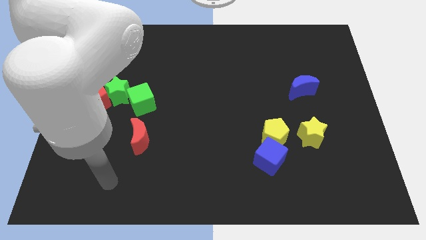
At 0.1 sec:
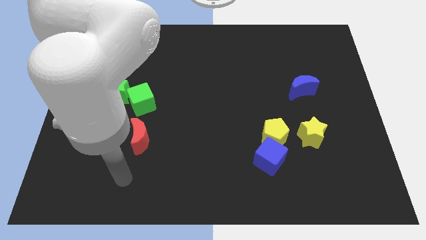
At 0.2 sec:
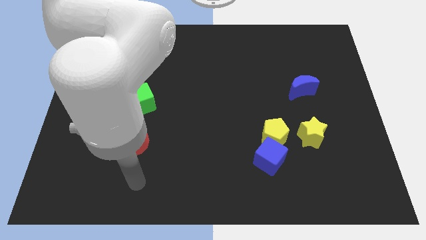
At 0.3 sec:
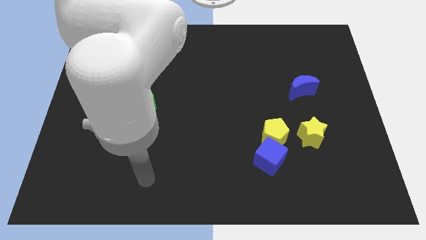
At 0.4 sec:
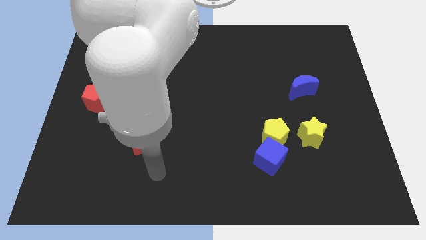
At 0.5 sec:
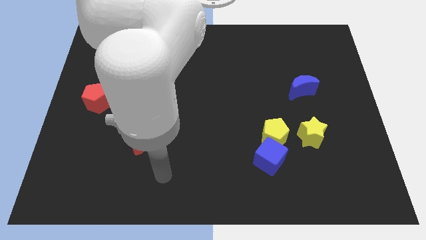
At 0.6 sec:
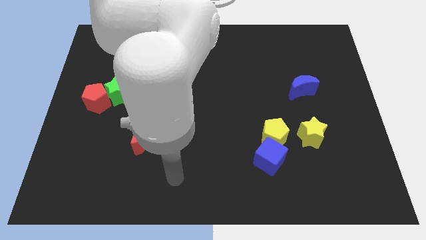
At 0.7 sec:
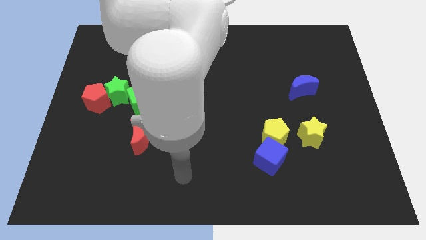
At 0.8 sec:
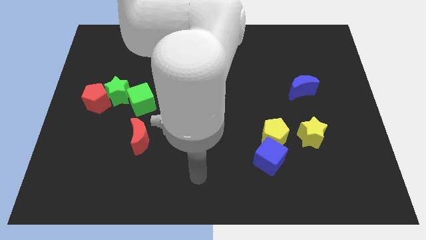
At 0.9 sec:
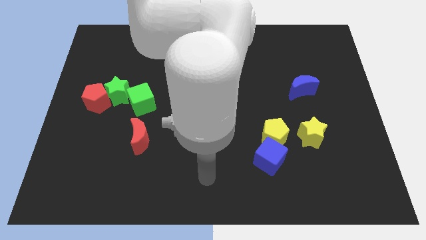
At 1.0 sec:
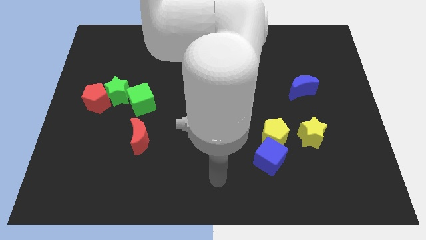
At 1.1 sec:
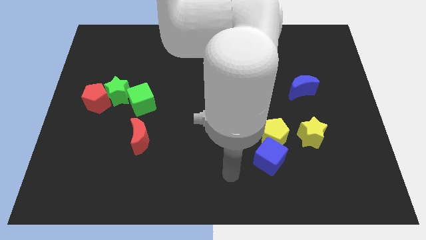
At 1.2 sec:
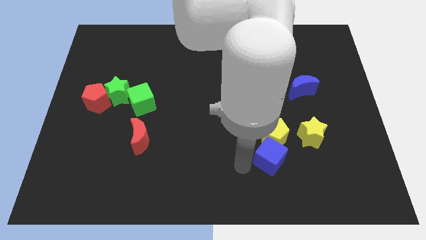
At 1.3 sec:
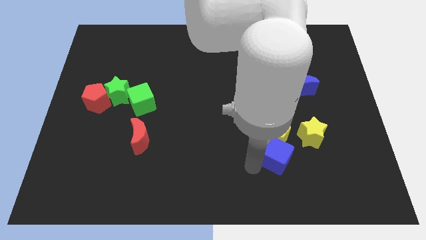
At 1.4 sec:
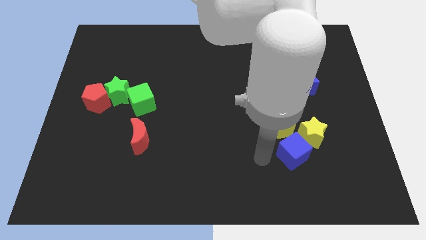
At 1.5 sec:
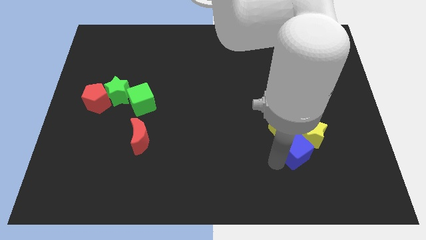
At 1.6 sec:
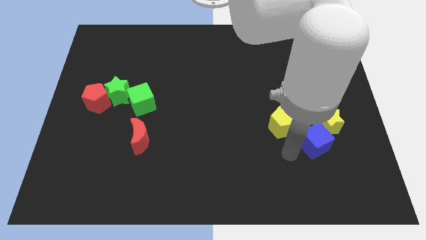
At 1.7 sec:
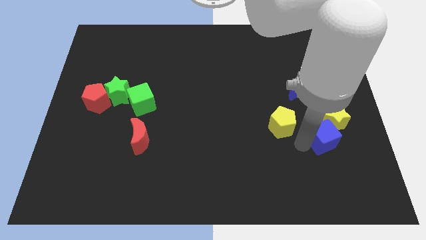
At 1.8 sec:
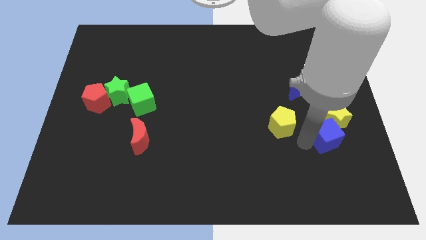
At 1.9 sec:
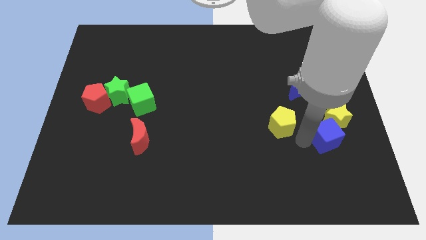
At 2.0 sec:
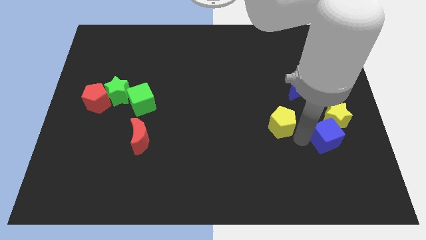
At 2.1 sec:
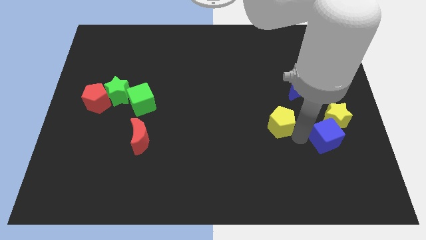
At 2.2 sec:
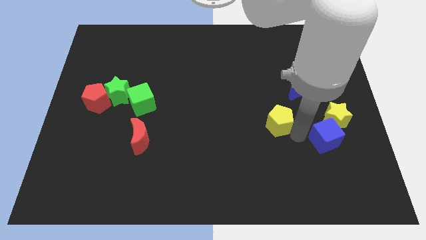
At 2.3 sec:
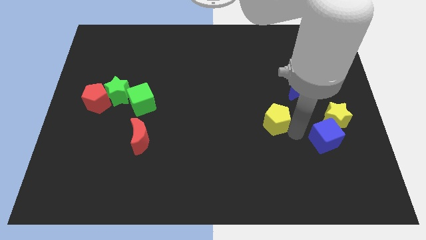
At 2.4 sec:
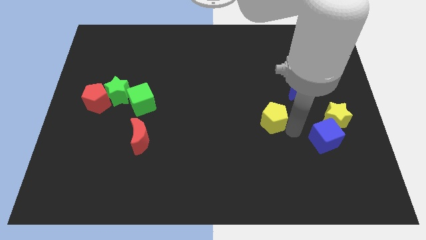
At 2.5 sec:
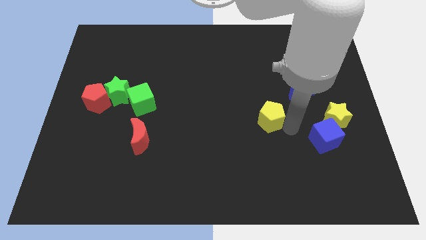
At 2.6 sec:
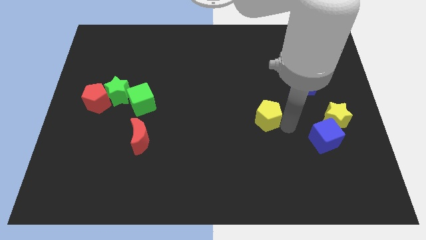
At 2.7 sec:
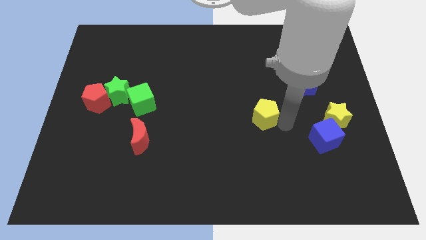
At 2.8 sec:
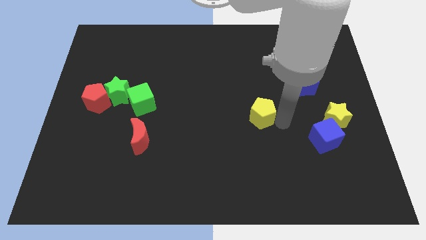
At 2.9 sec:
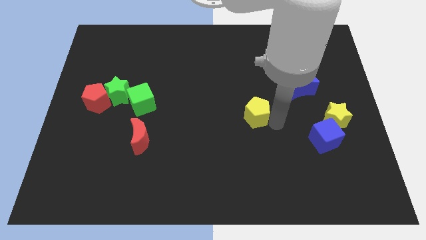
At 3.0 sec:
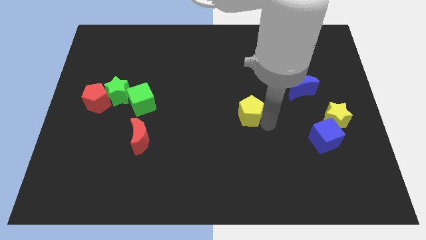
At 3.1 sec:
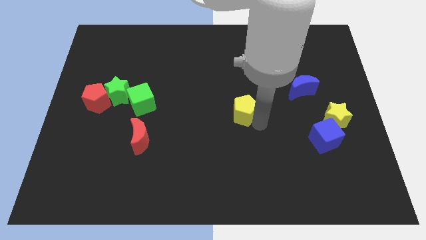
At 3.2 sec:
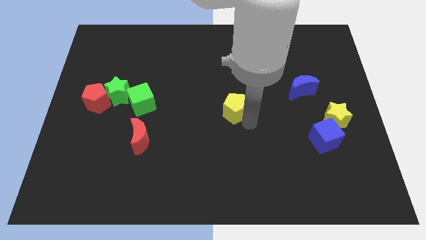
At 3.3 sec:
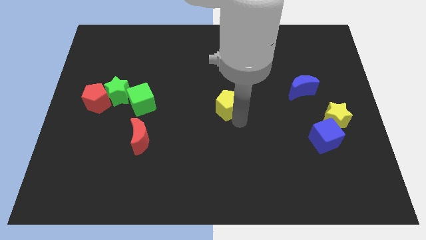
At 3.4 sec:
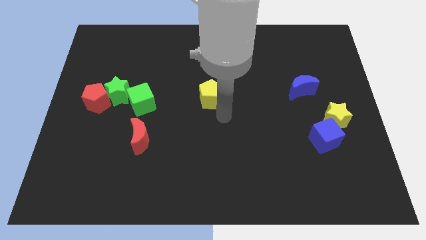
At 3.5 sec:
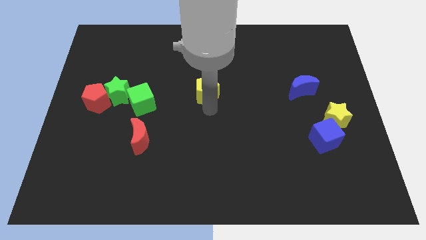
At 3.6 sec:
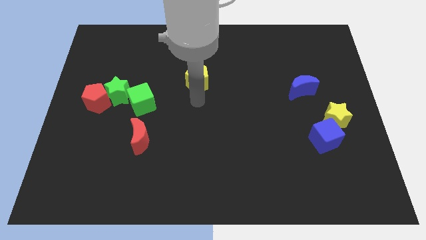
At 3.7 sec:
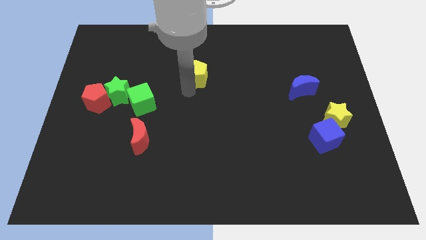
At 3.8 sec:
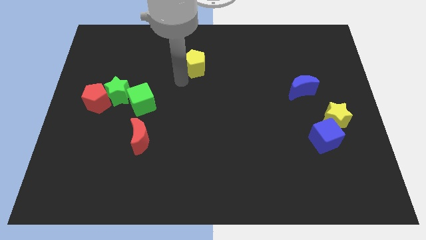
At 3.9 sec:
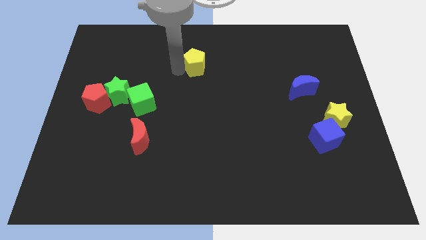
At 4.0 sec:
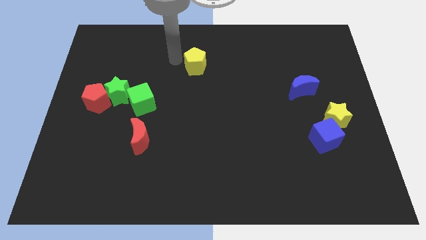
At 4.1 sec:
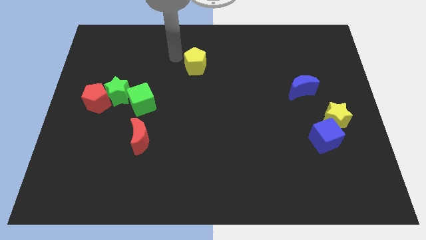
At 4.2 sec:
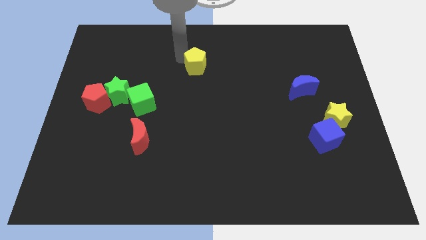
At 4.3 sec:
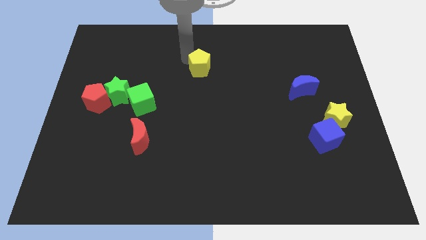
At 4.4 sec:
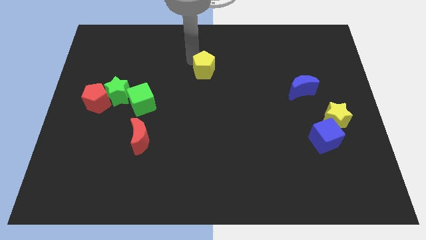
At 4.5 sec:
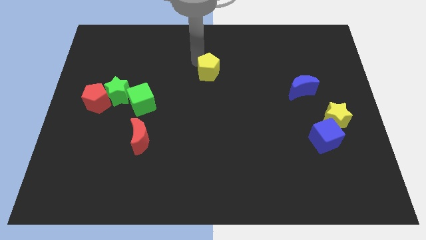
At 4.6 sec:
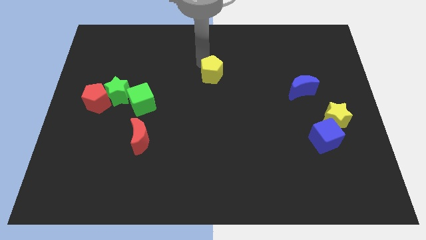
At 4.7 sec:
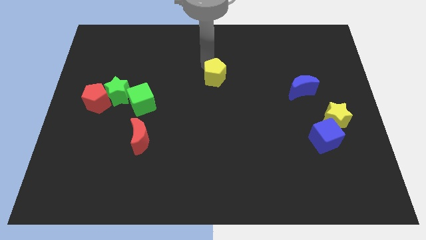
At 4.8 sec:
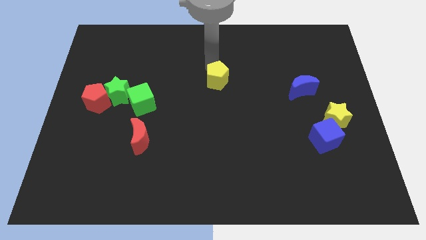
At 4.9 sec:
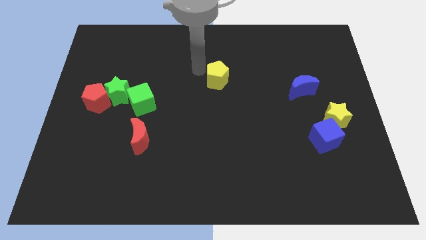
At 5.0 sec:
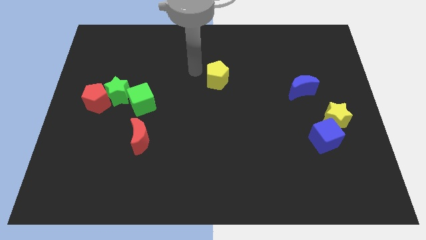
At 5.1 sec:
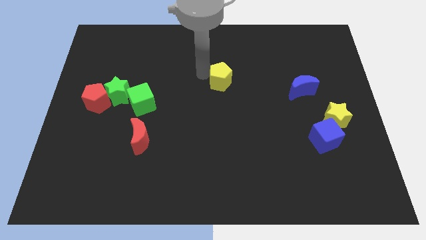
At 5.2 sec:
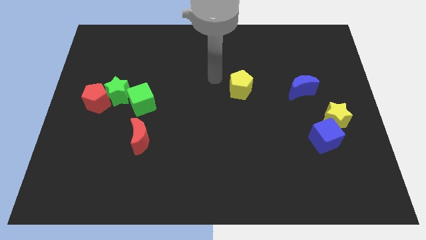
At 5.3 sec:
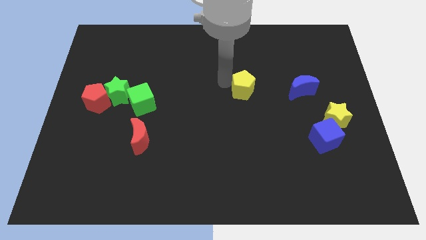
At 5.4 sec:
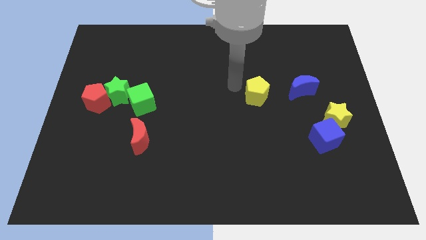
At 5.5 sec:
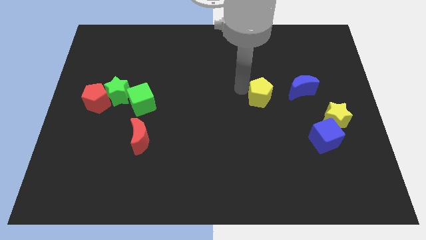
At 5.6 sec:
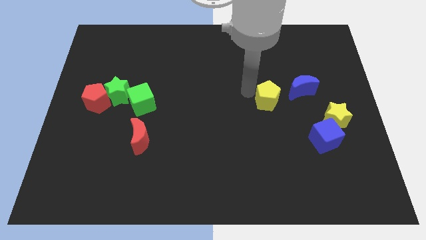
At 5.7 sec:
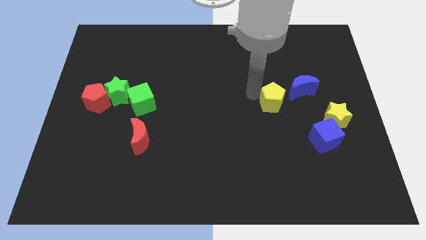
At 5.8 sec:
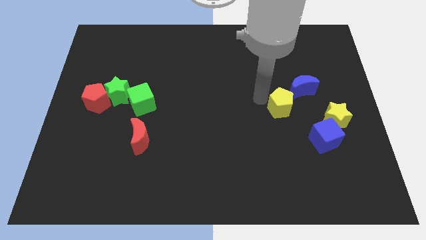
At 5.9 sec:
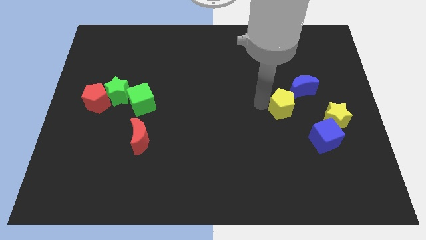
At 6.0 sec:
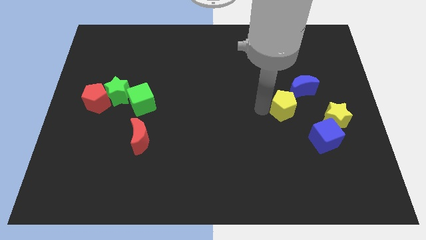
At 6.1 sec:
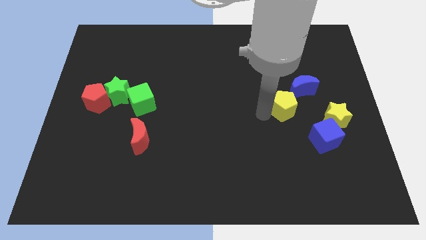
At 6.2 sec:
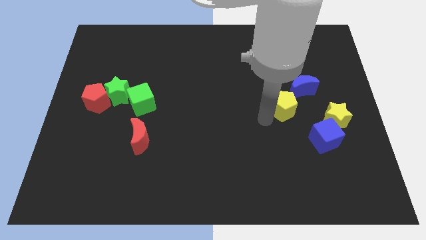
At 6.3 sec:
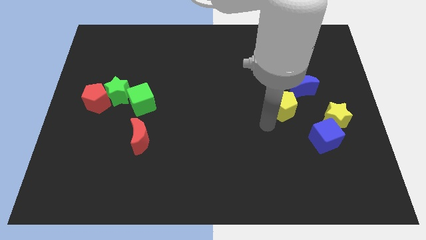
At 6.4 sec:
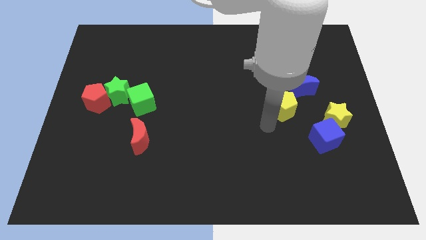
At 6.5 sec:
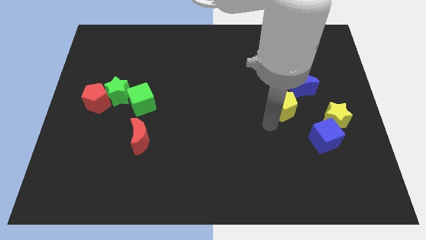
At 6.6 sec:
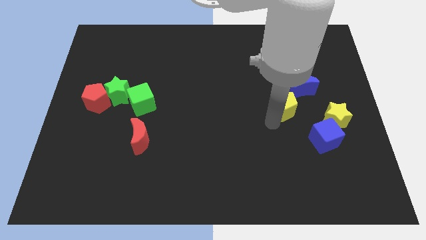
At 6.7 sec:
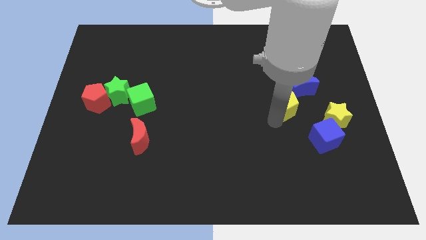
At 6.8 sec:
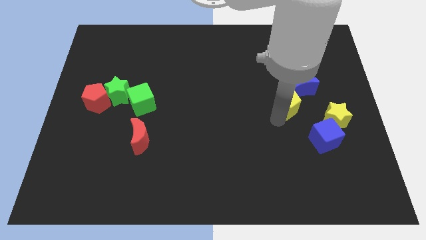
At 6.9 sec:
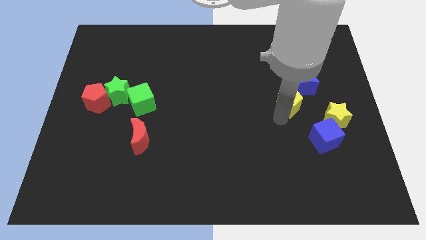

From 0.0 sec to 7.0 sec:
move the yellow pentagon close to the blue moon
